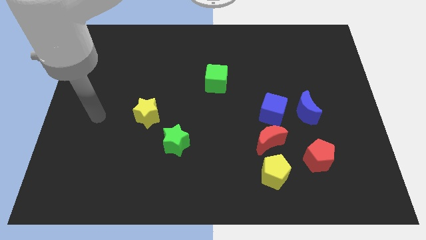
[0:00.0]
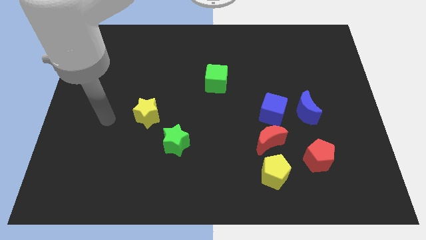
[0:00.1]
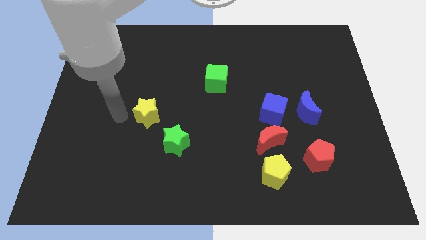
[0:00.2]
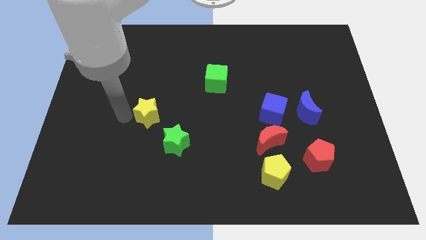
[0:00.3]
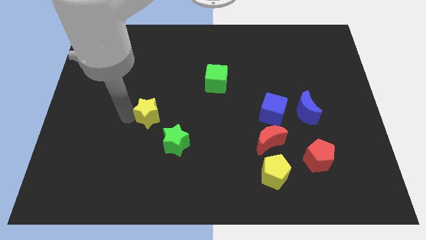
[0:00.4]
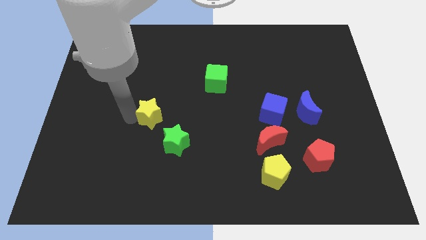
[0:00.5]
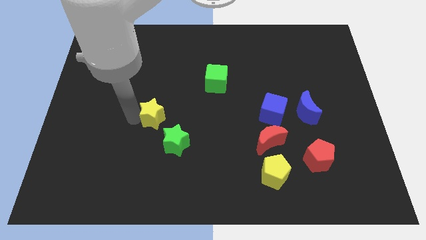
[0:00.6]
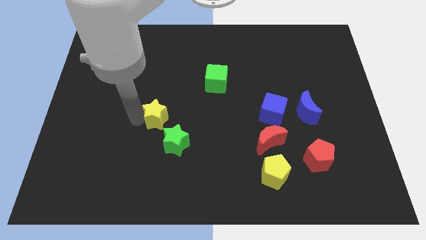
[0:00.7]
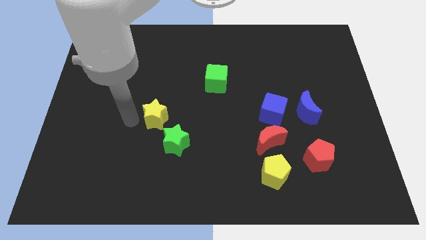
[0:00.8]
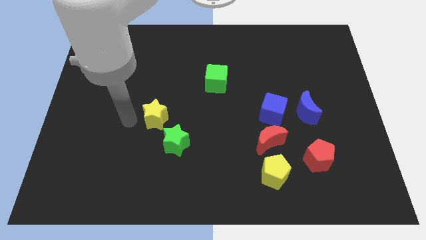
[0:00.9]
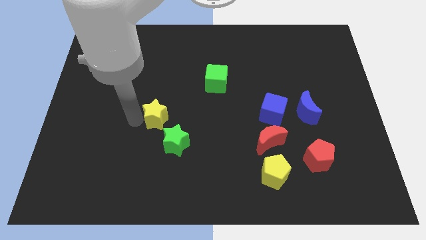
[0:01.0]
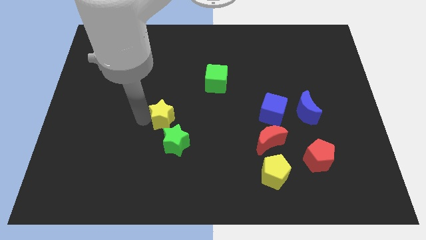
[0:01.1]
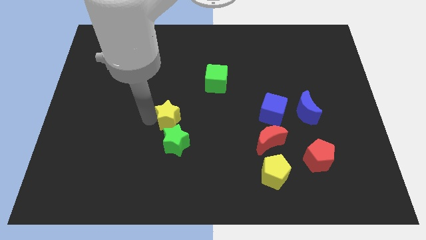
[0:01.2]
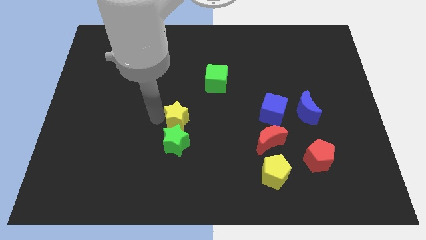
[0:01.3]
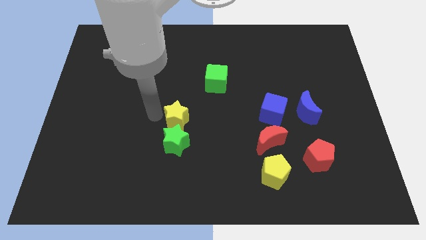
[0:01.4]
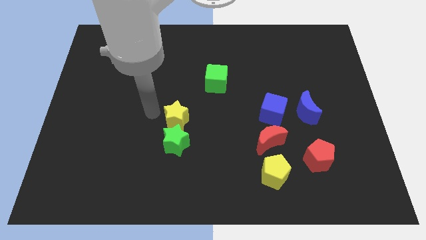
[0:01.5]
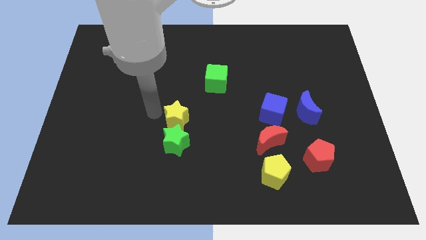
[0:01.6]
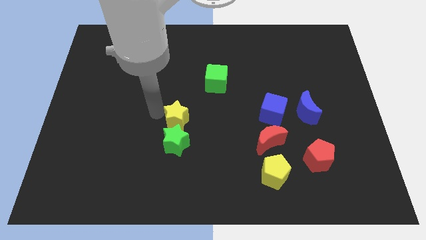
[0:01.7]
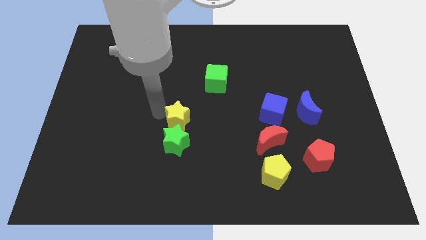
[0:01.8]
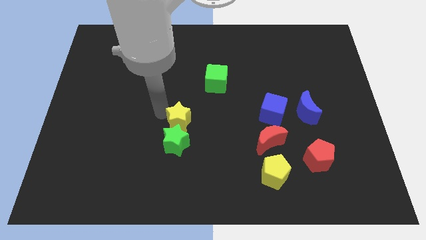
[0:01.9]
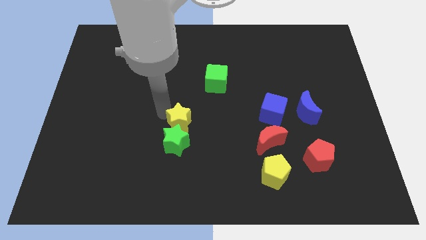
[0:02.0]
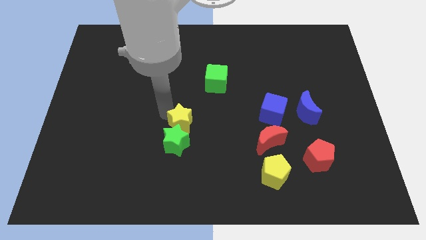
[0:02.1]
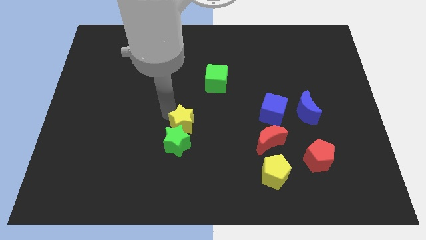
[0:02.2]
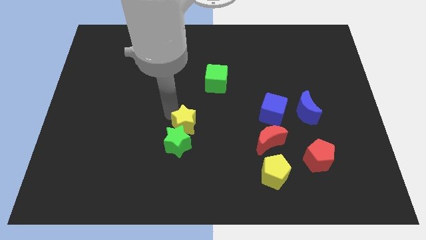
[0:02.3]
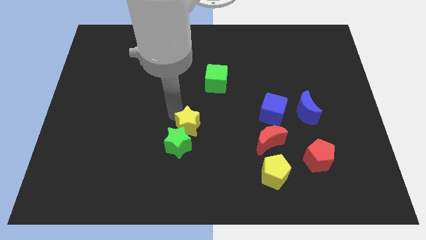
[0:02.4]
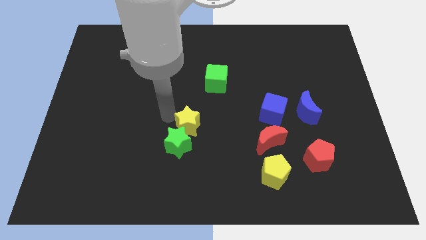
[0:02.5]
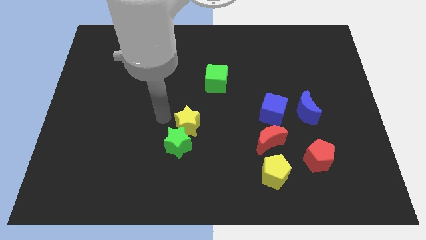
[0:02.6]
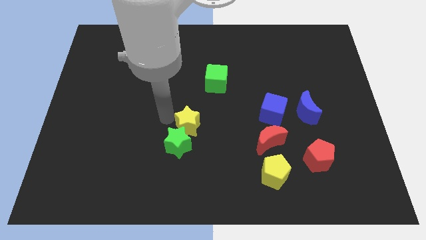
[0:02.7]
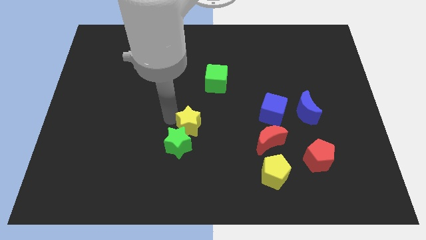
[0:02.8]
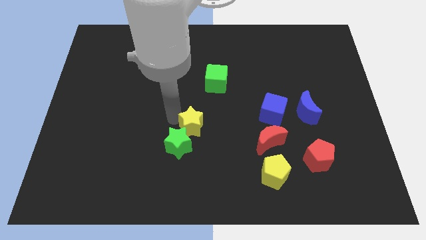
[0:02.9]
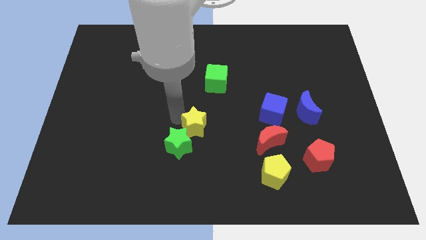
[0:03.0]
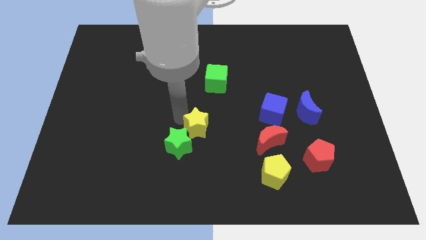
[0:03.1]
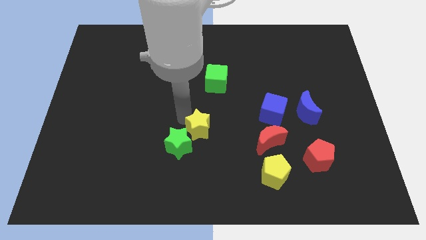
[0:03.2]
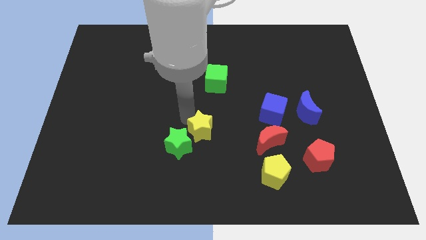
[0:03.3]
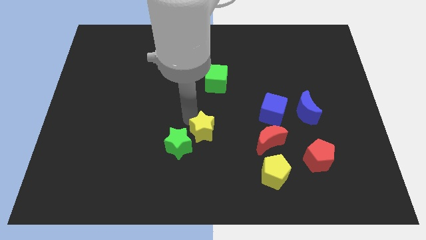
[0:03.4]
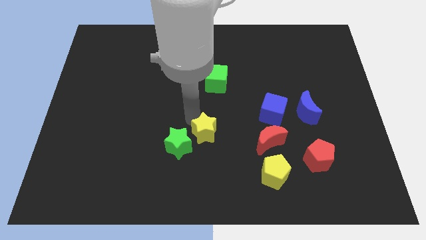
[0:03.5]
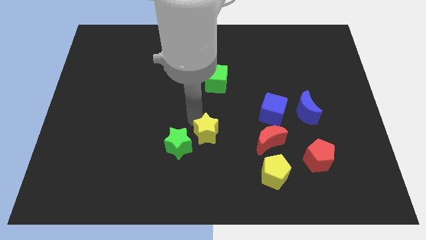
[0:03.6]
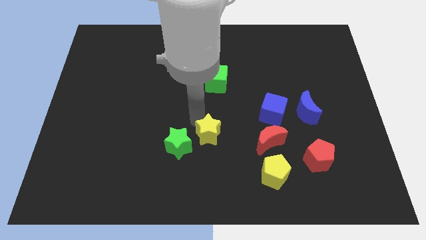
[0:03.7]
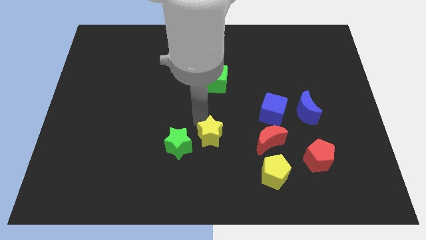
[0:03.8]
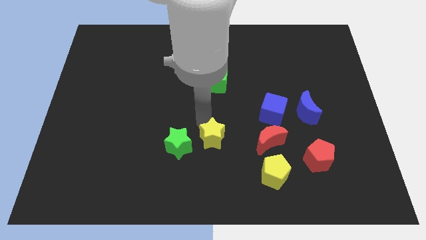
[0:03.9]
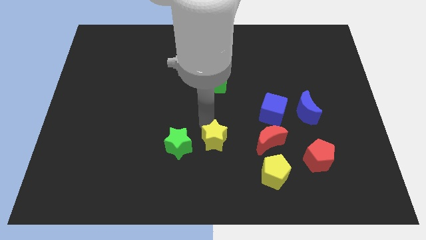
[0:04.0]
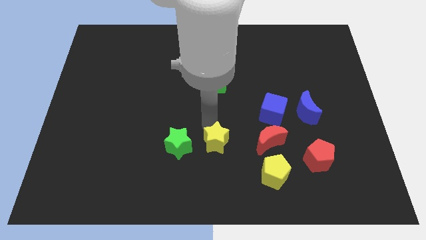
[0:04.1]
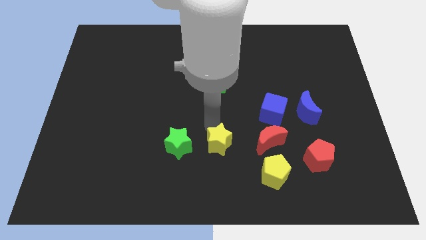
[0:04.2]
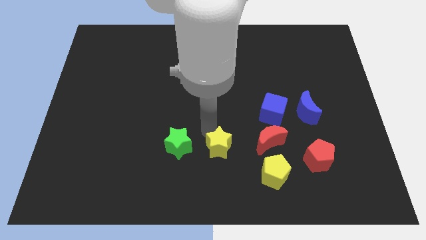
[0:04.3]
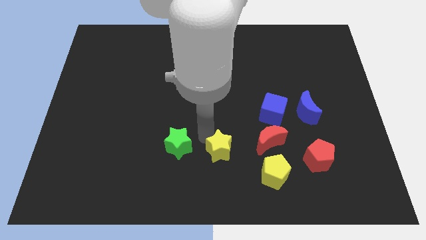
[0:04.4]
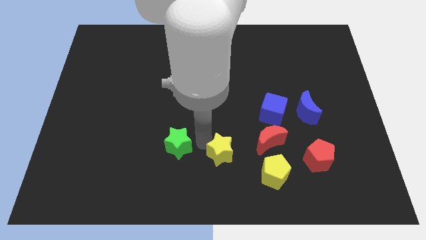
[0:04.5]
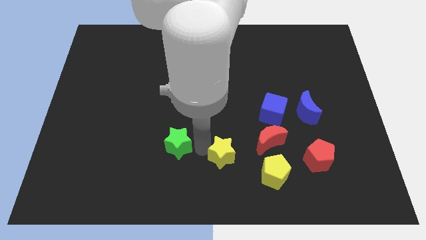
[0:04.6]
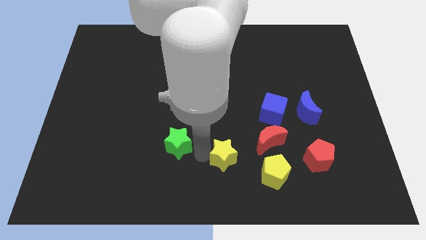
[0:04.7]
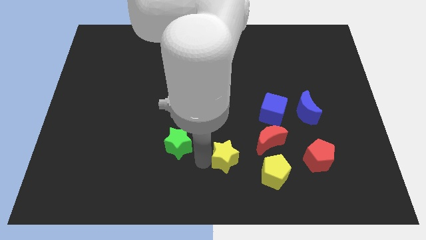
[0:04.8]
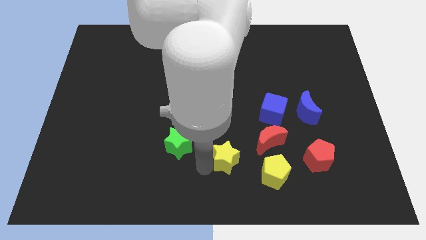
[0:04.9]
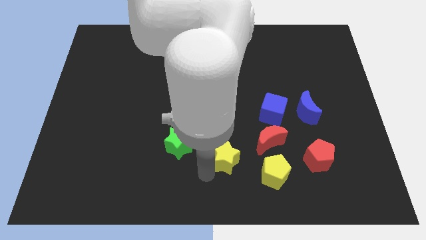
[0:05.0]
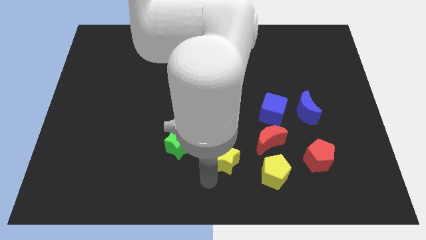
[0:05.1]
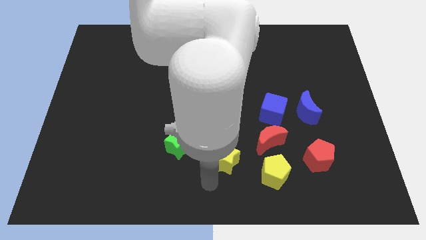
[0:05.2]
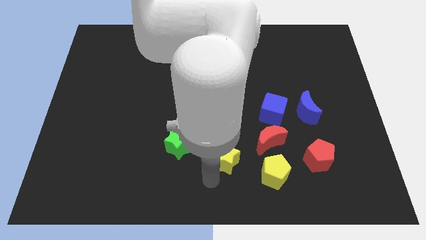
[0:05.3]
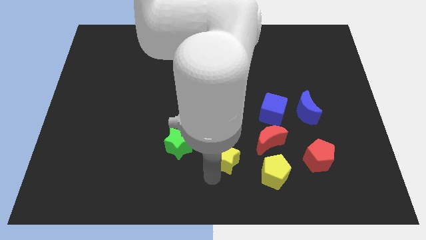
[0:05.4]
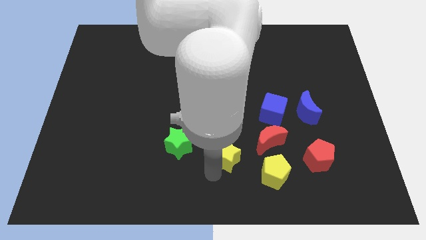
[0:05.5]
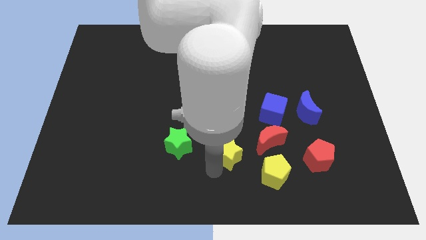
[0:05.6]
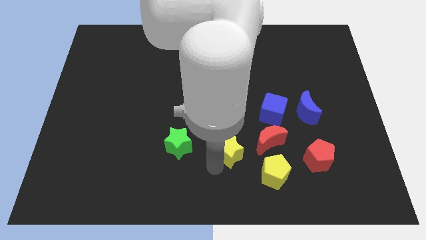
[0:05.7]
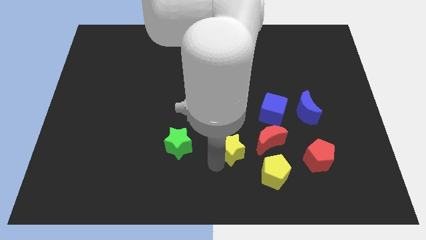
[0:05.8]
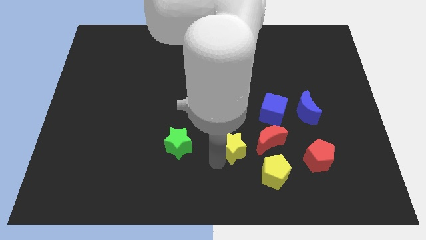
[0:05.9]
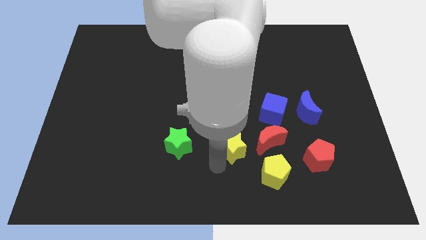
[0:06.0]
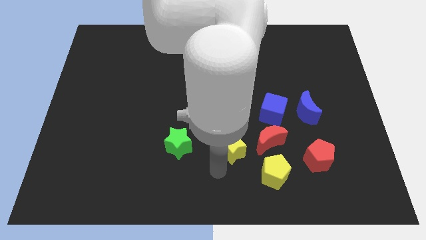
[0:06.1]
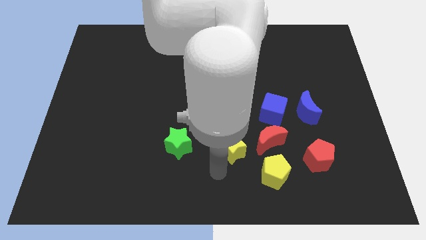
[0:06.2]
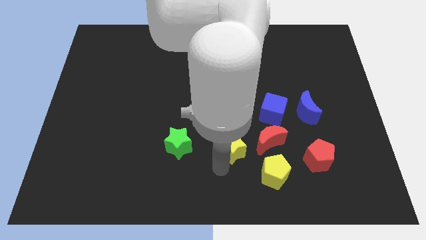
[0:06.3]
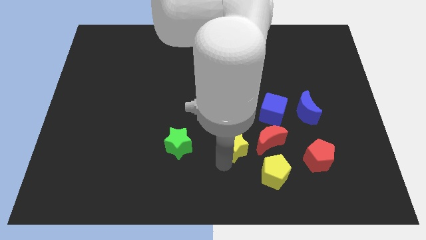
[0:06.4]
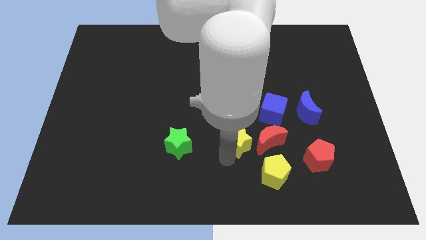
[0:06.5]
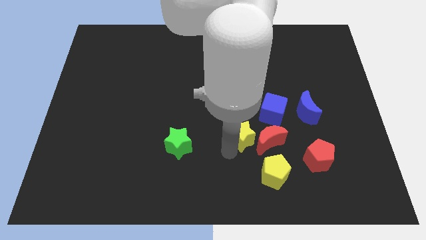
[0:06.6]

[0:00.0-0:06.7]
put the yellow star towards the red moon

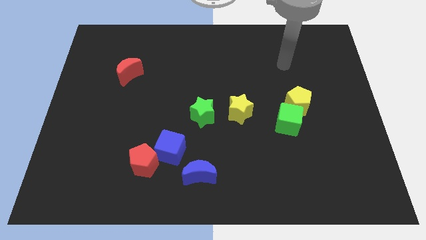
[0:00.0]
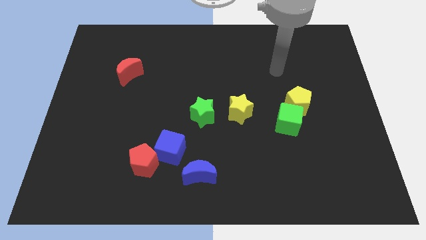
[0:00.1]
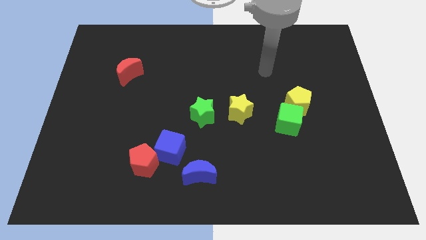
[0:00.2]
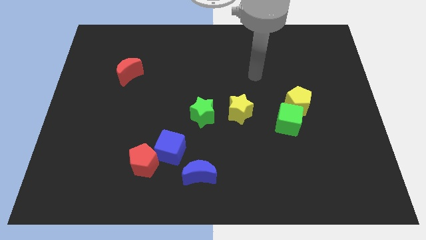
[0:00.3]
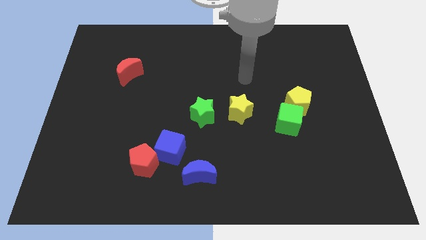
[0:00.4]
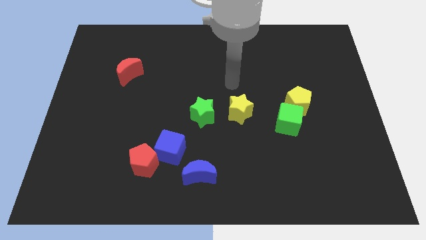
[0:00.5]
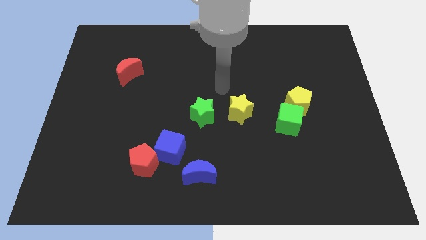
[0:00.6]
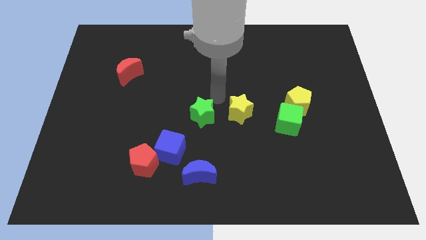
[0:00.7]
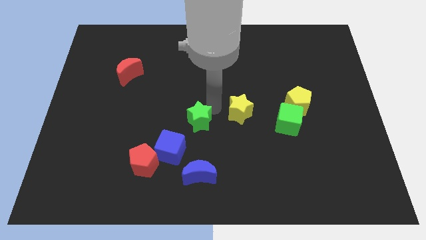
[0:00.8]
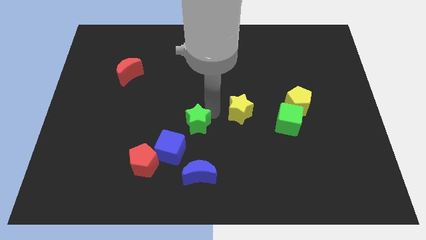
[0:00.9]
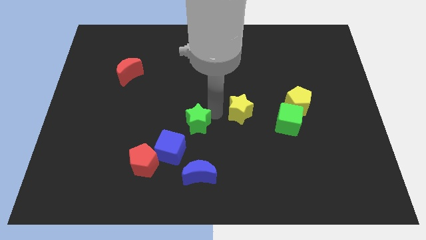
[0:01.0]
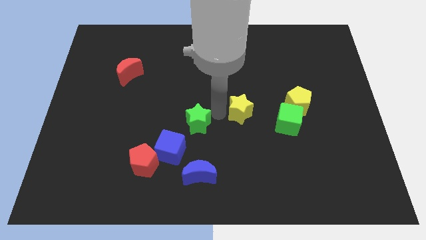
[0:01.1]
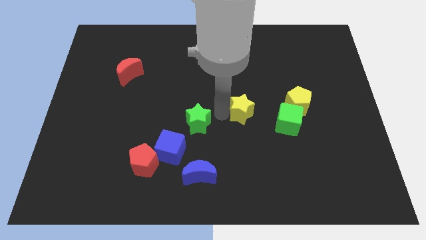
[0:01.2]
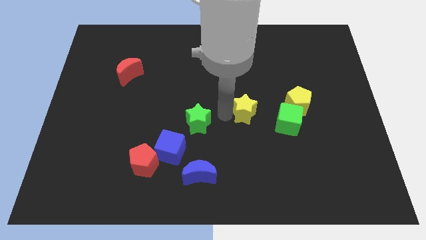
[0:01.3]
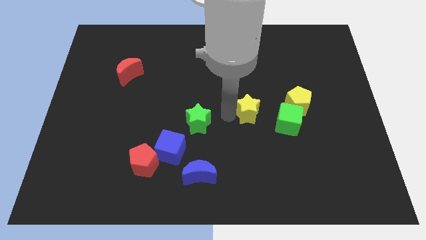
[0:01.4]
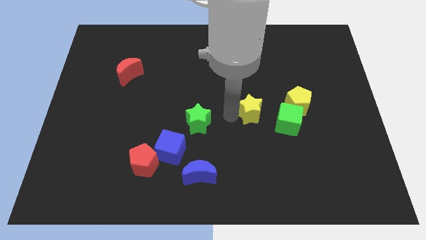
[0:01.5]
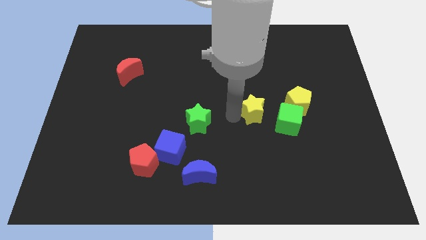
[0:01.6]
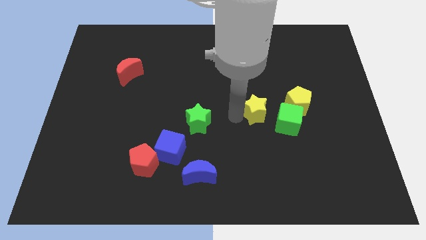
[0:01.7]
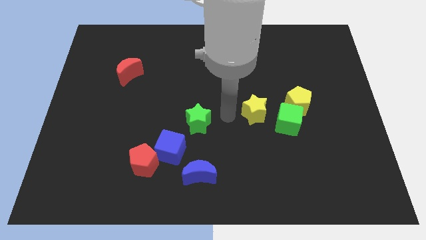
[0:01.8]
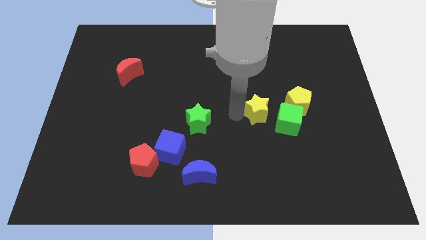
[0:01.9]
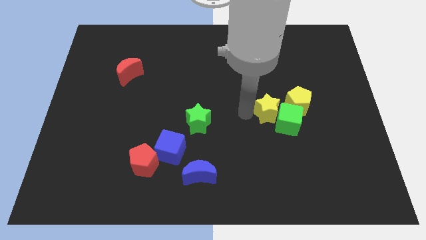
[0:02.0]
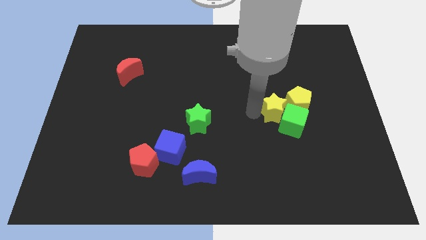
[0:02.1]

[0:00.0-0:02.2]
put the yellow star to the yellow pentagon
